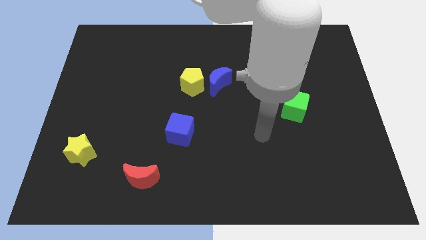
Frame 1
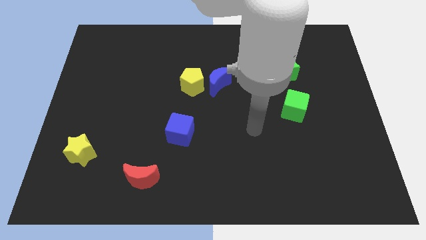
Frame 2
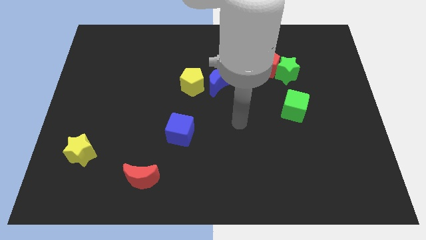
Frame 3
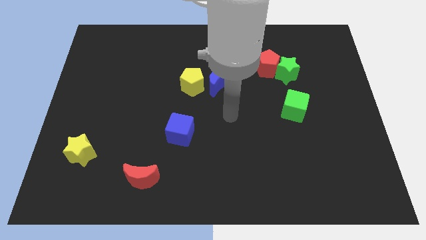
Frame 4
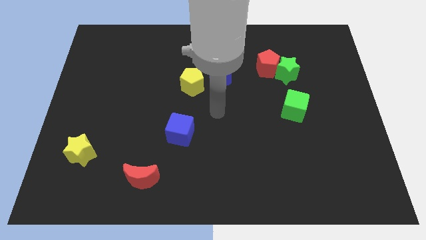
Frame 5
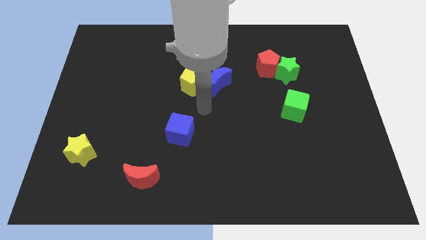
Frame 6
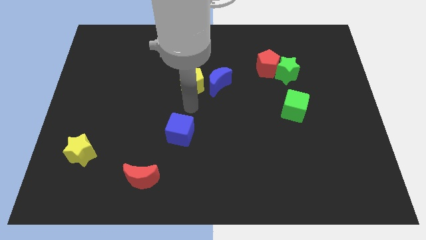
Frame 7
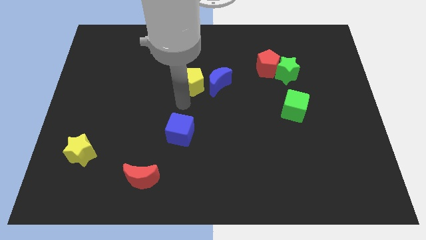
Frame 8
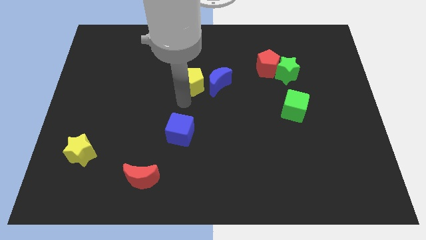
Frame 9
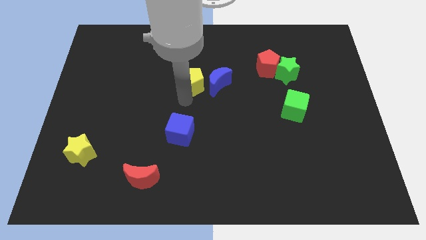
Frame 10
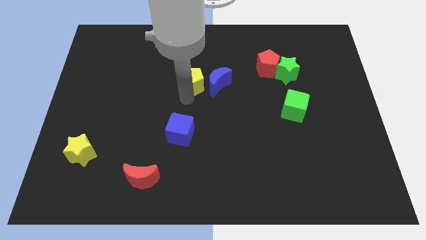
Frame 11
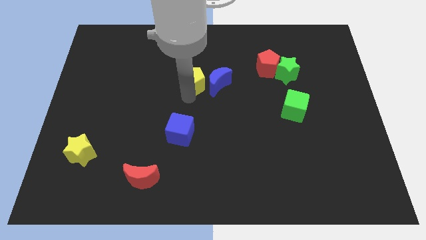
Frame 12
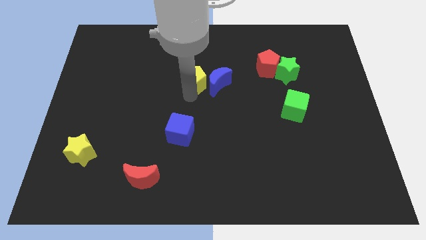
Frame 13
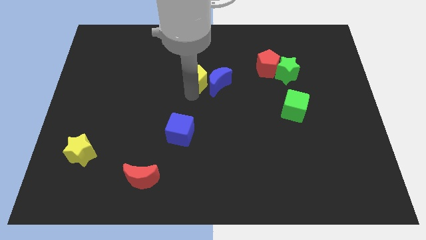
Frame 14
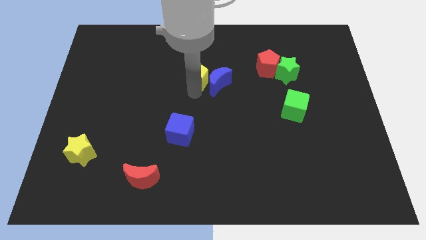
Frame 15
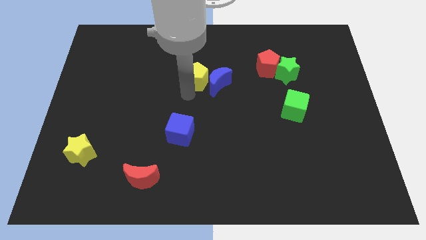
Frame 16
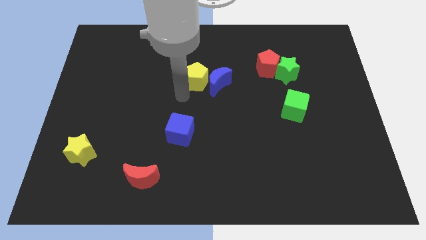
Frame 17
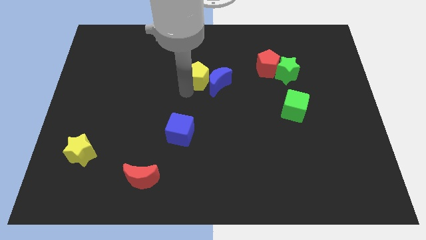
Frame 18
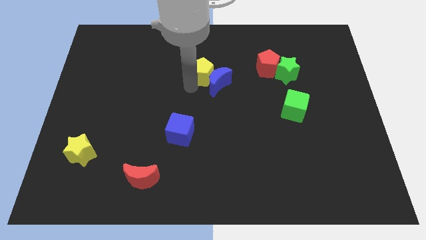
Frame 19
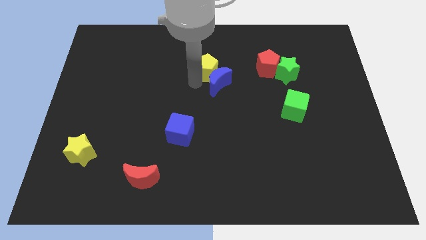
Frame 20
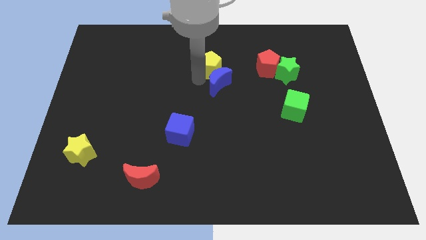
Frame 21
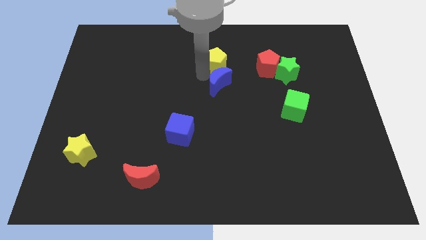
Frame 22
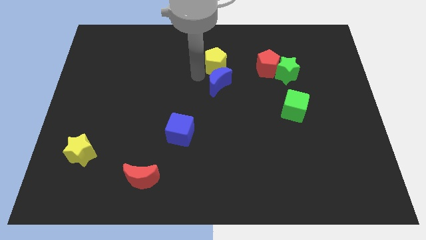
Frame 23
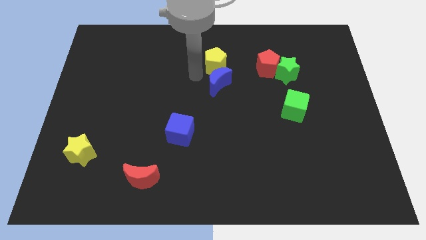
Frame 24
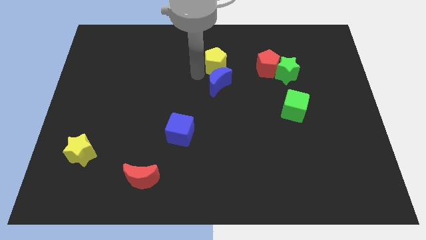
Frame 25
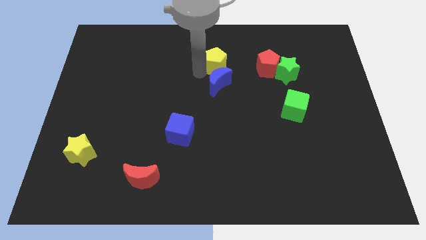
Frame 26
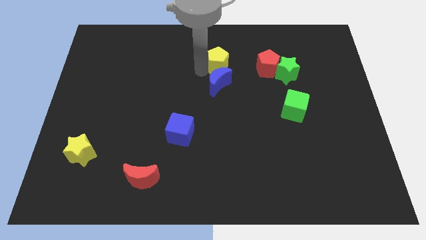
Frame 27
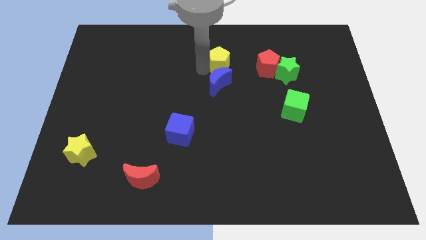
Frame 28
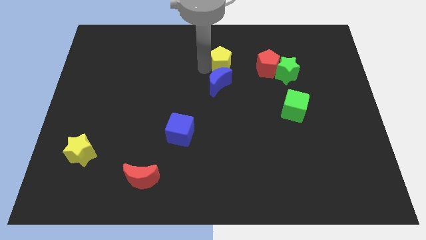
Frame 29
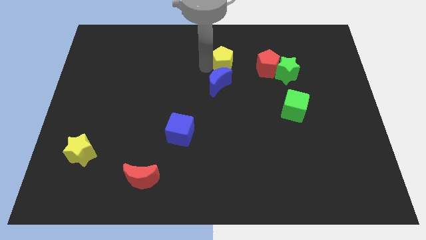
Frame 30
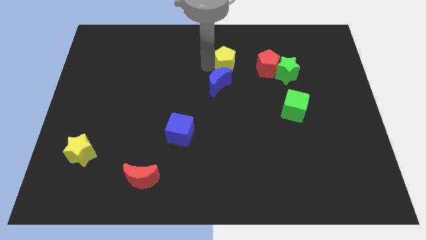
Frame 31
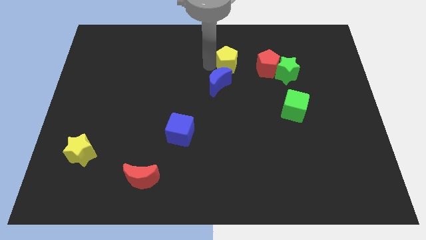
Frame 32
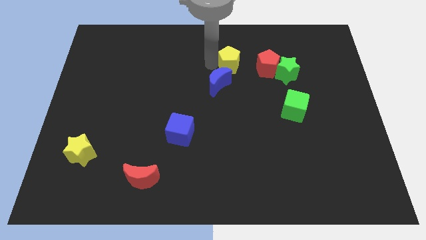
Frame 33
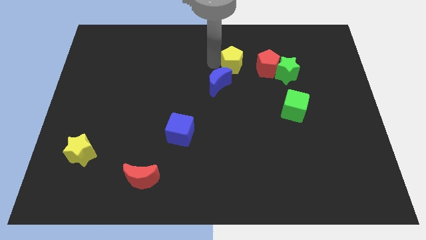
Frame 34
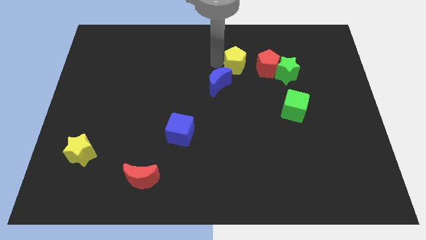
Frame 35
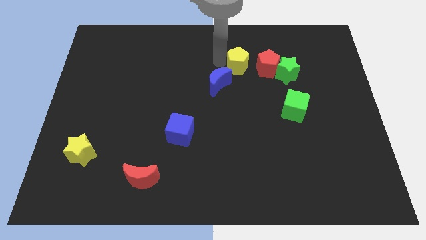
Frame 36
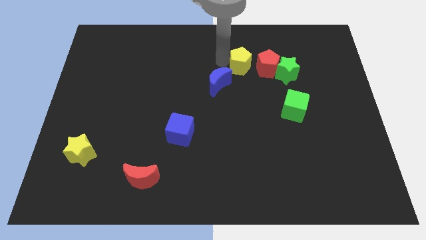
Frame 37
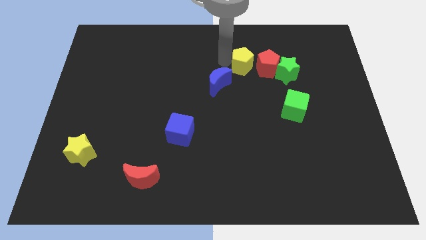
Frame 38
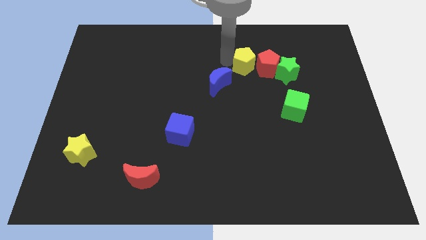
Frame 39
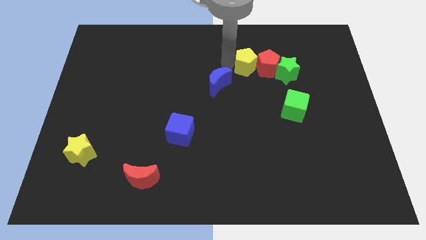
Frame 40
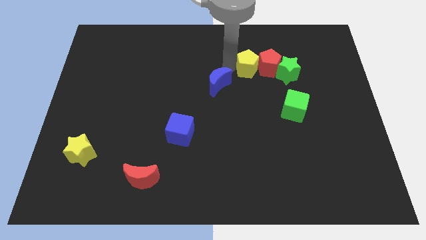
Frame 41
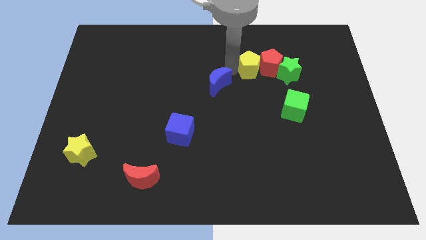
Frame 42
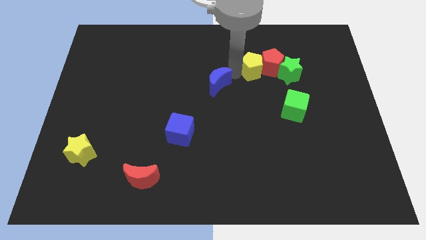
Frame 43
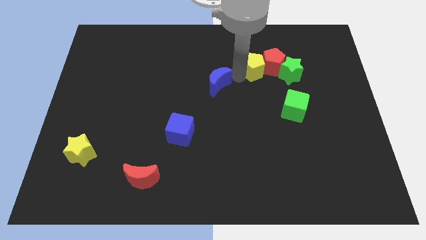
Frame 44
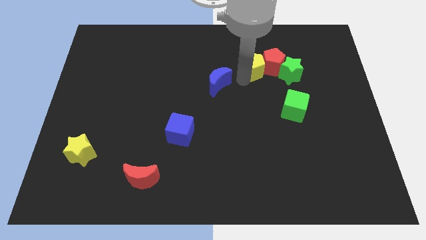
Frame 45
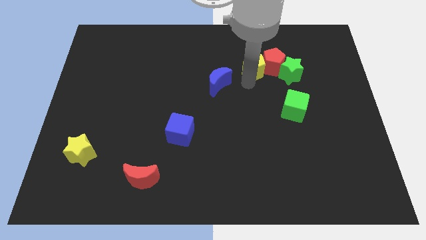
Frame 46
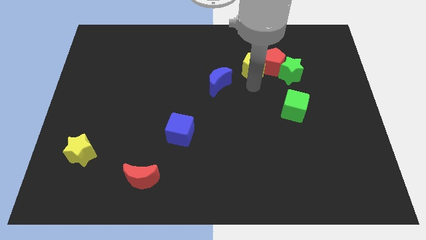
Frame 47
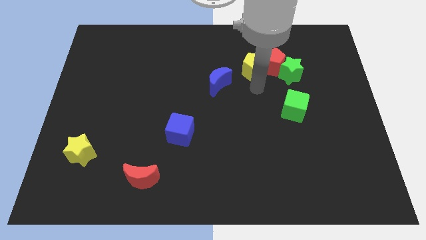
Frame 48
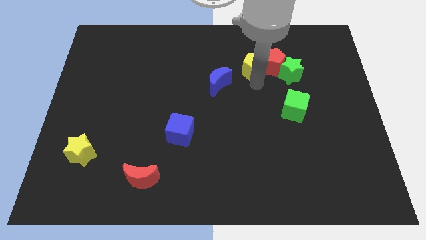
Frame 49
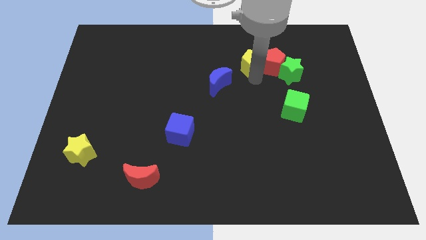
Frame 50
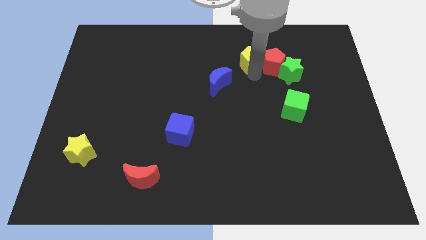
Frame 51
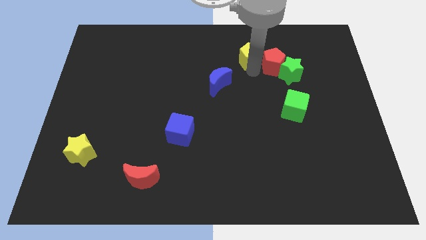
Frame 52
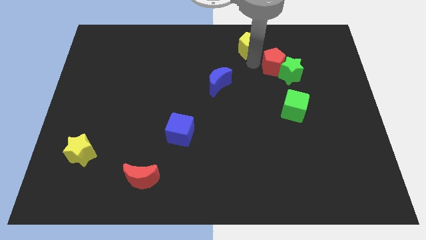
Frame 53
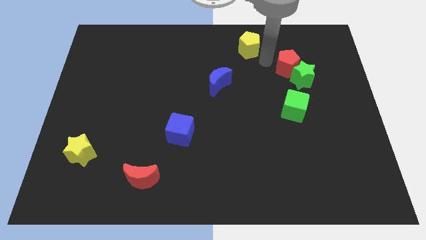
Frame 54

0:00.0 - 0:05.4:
put the yellow pentagon to the top

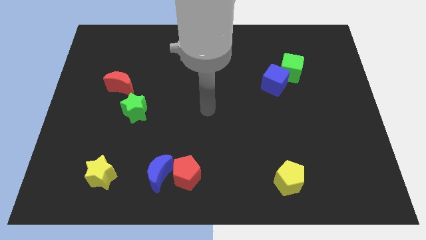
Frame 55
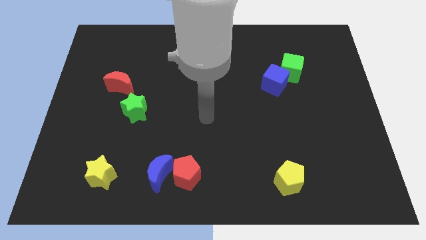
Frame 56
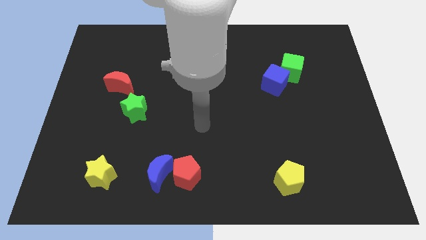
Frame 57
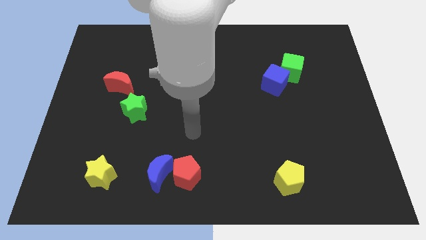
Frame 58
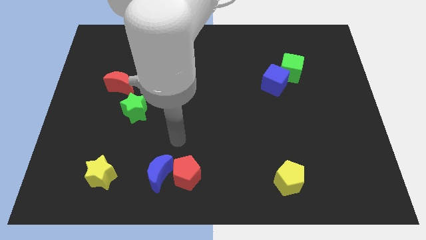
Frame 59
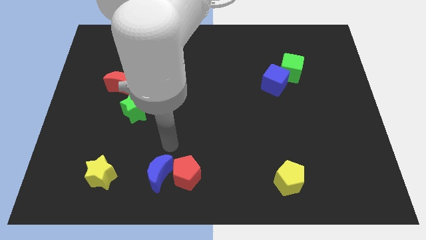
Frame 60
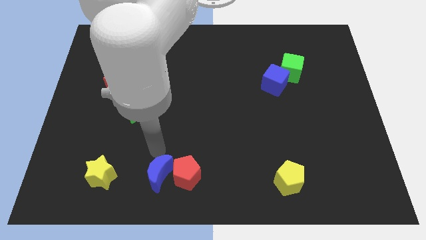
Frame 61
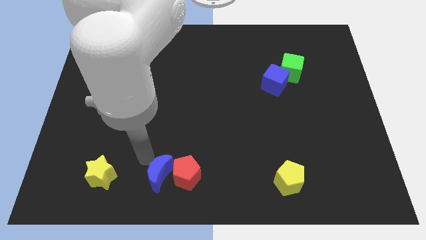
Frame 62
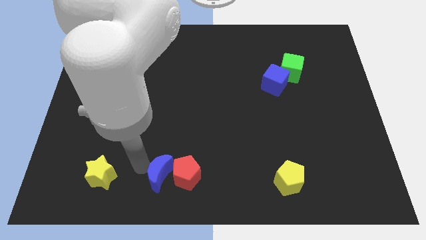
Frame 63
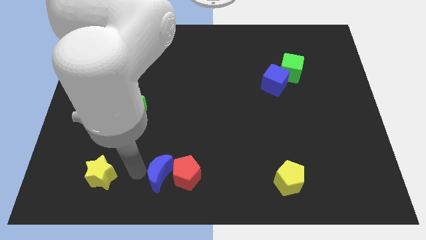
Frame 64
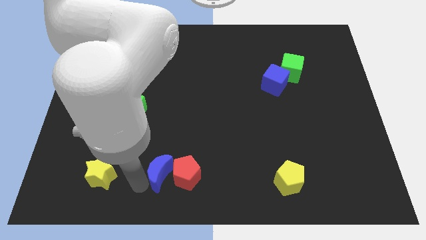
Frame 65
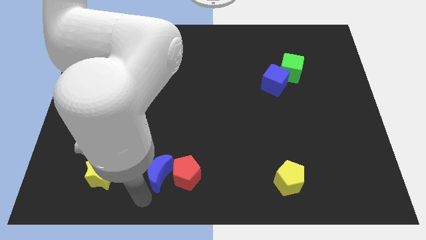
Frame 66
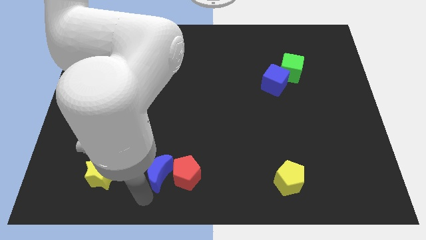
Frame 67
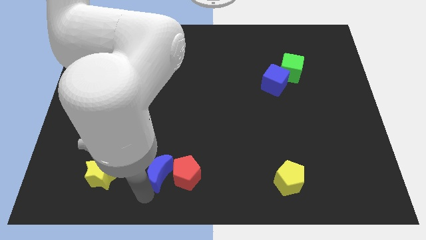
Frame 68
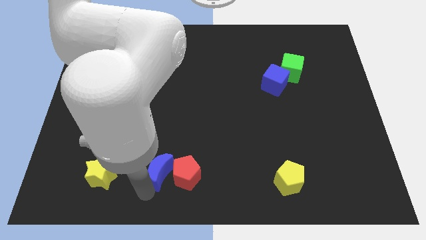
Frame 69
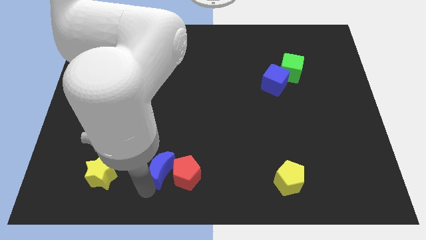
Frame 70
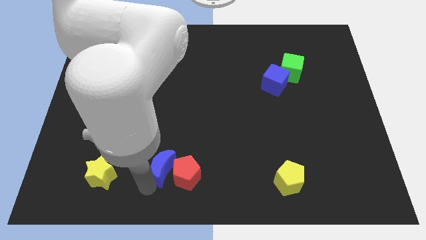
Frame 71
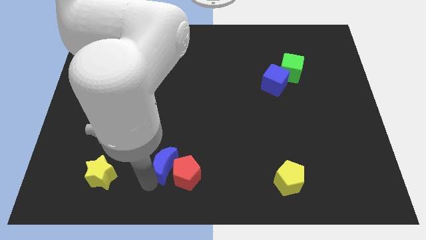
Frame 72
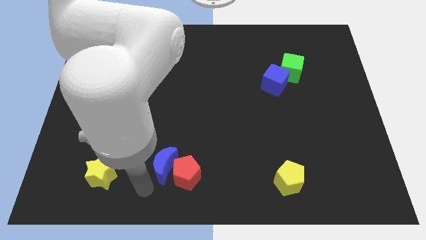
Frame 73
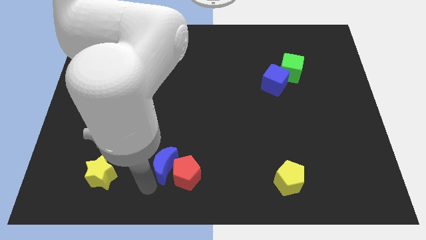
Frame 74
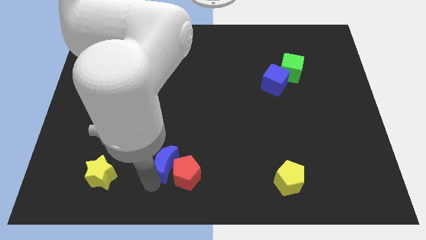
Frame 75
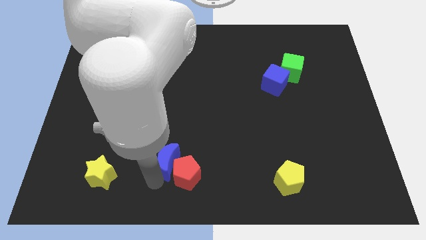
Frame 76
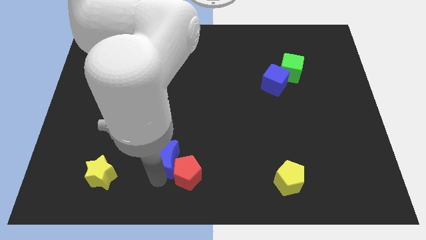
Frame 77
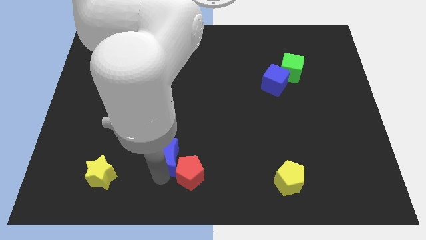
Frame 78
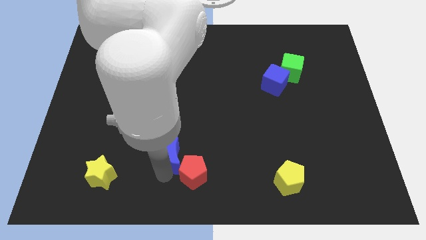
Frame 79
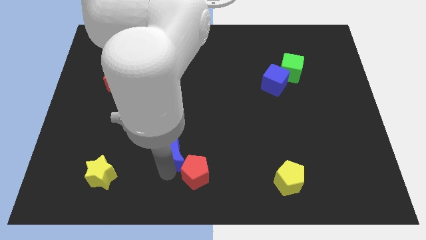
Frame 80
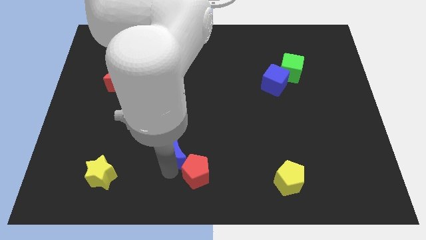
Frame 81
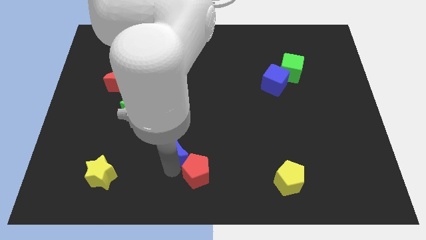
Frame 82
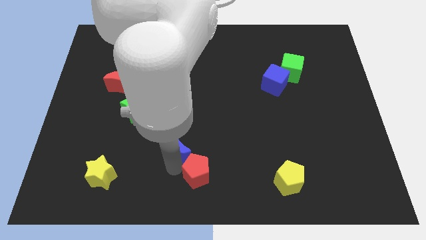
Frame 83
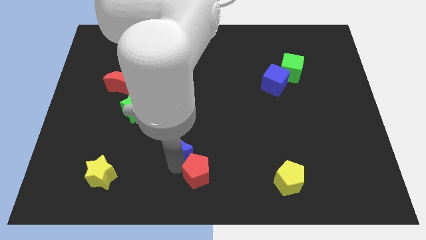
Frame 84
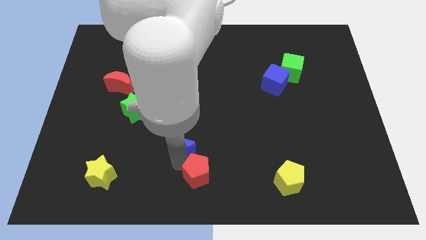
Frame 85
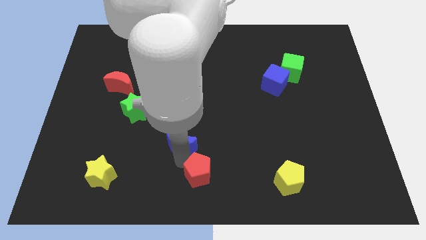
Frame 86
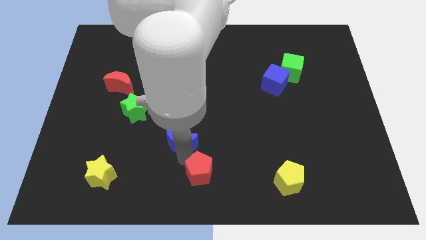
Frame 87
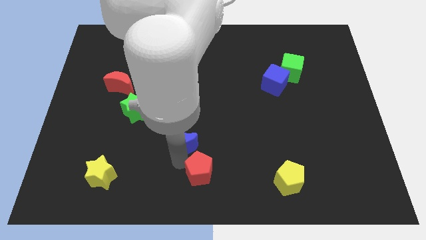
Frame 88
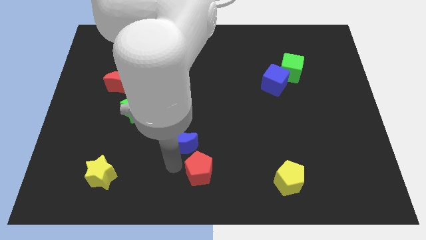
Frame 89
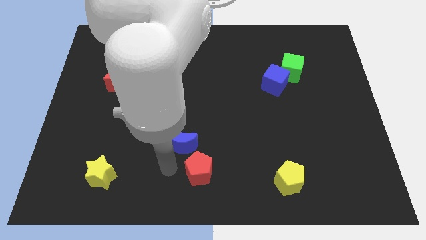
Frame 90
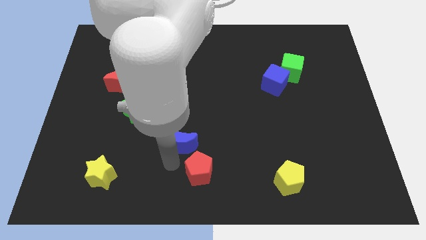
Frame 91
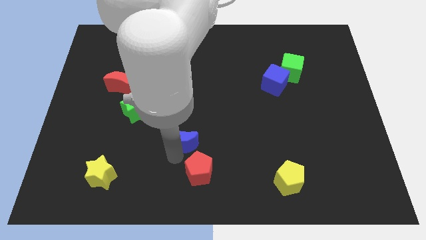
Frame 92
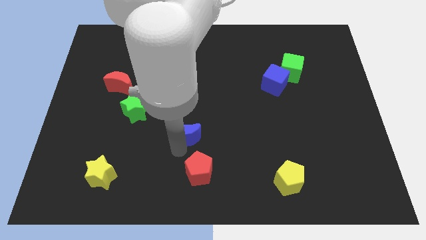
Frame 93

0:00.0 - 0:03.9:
push the blue moon to the middle
